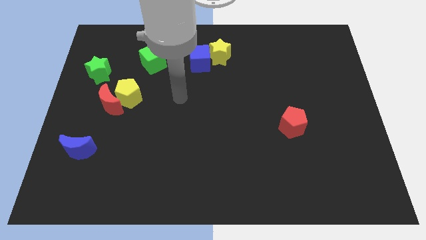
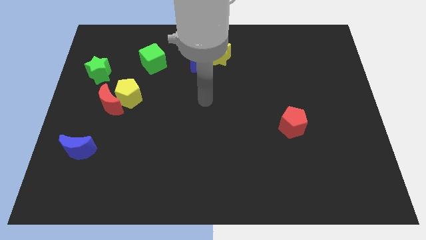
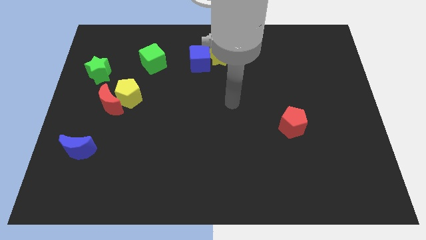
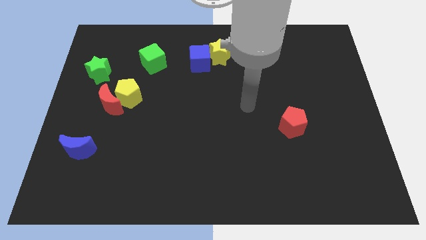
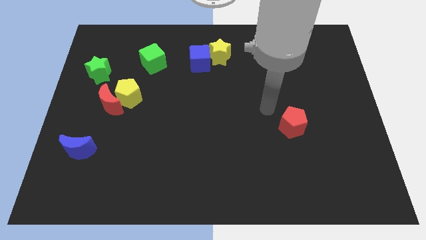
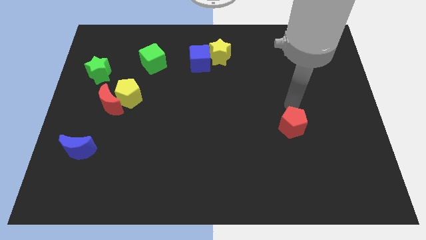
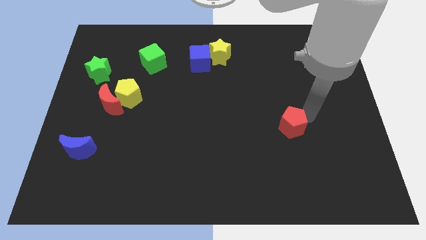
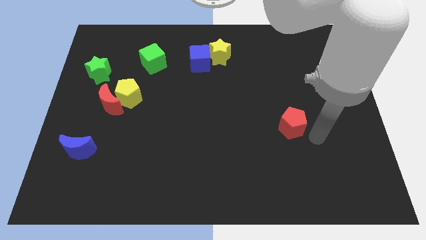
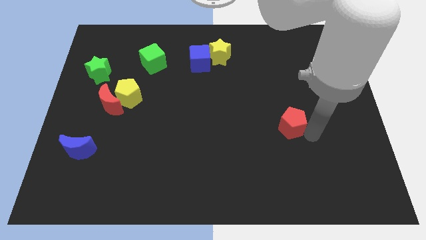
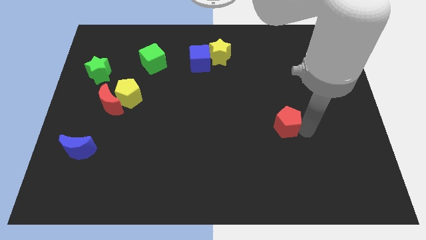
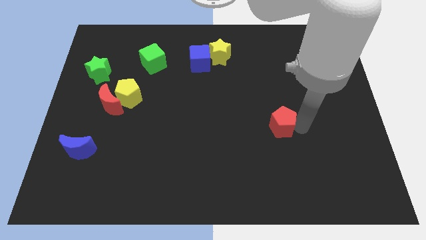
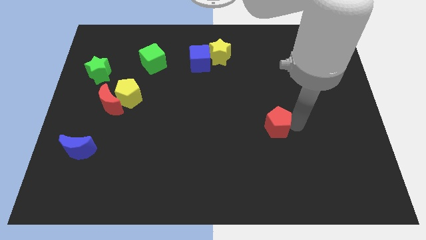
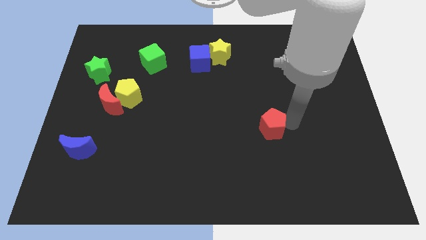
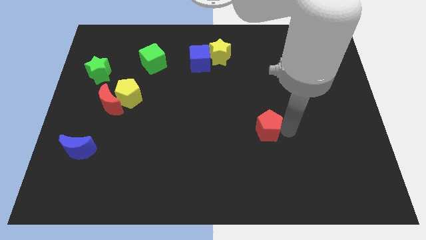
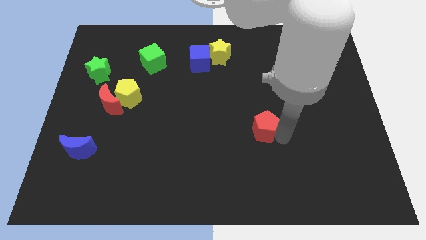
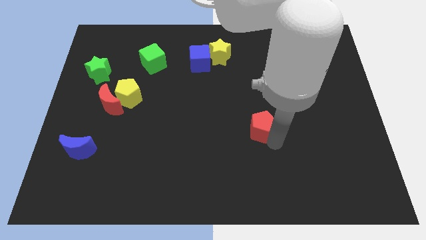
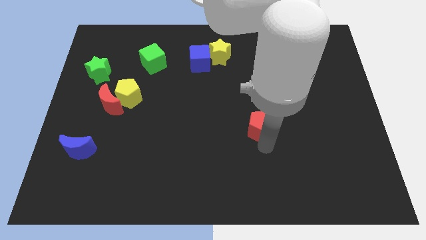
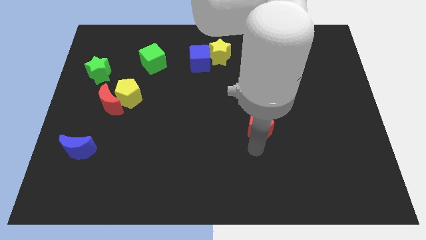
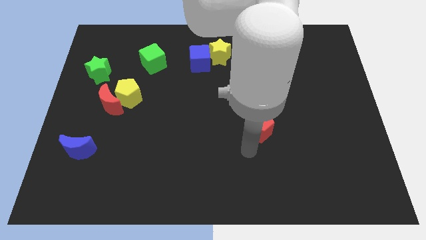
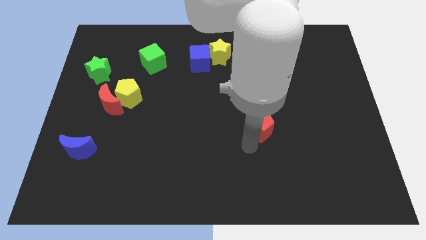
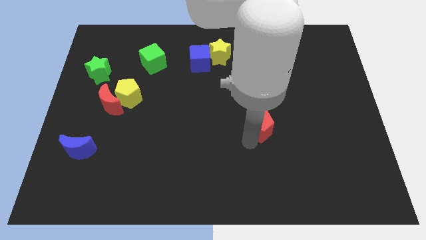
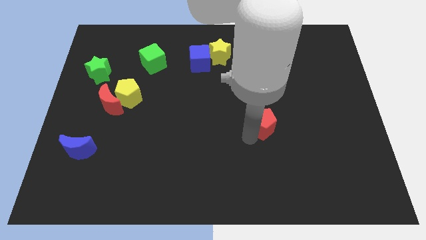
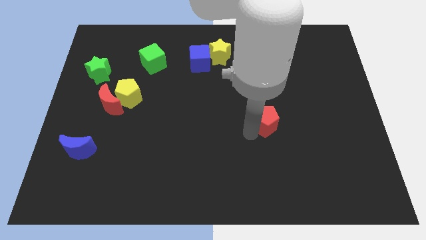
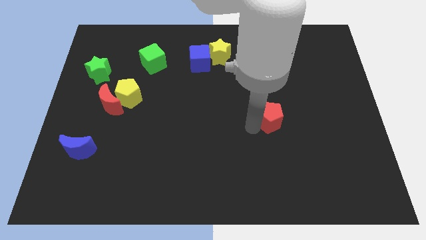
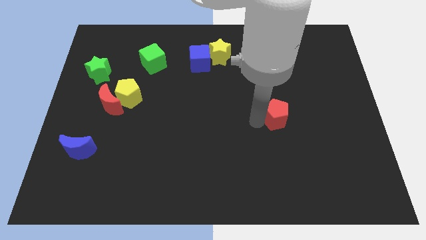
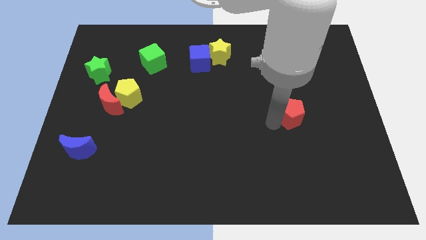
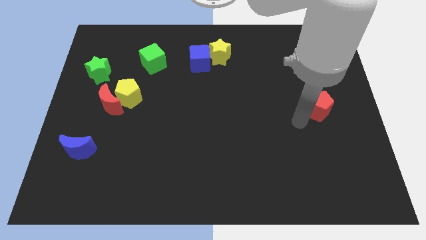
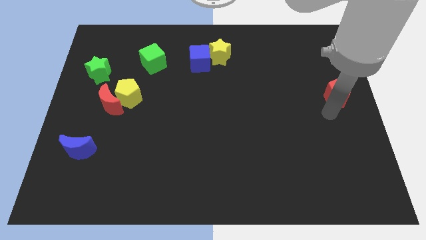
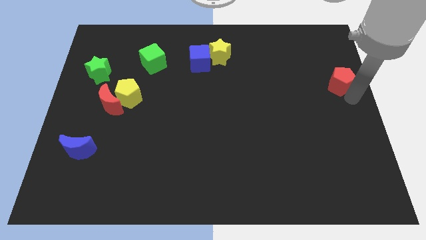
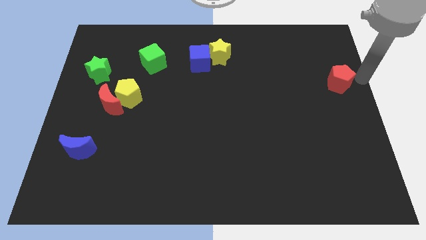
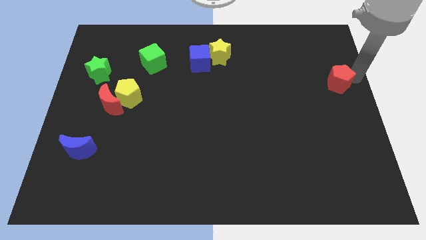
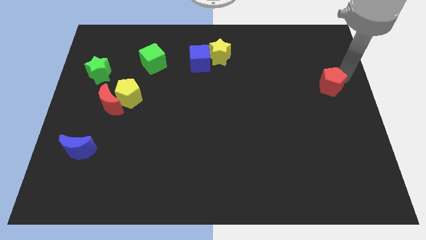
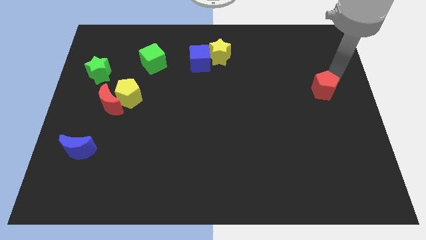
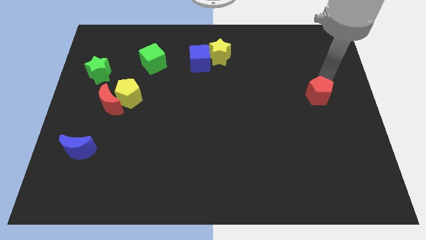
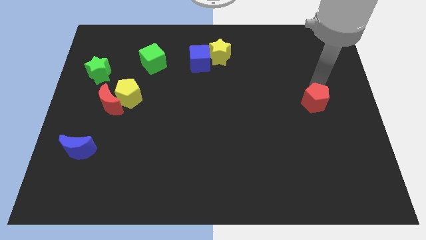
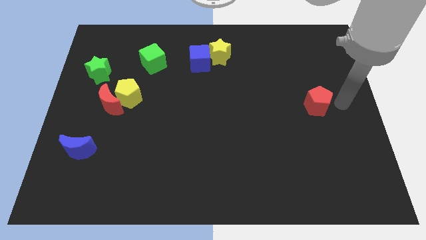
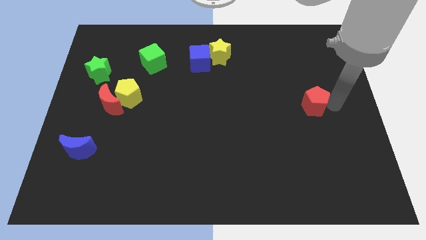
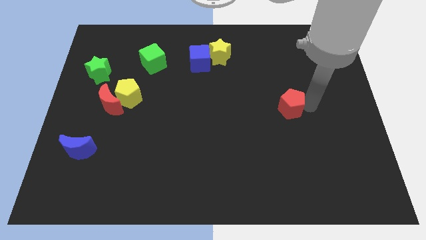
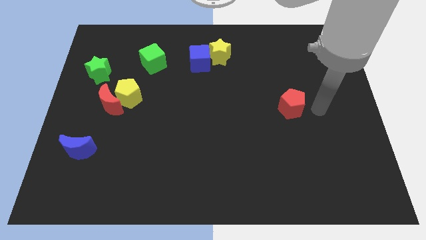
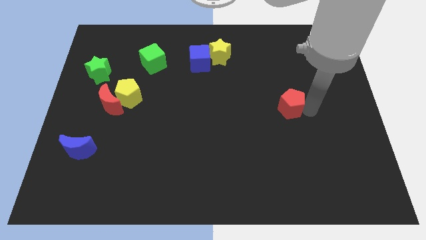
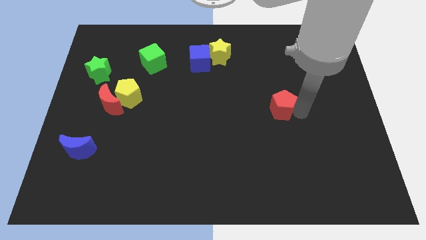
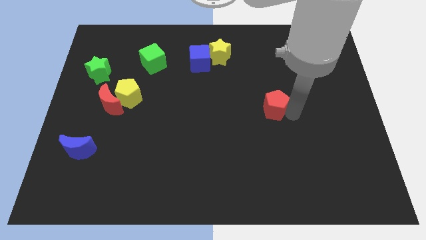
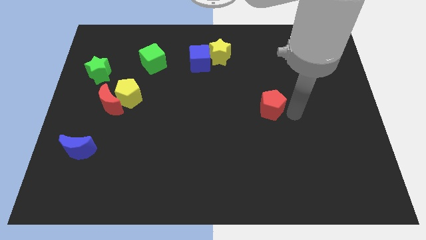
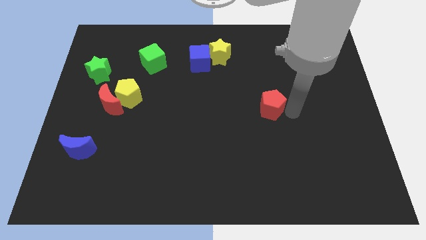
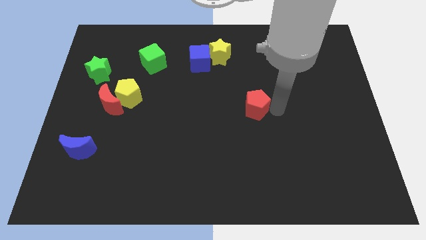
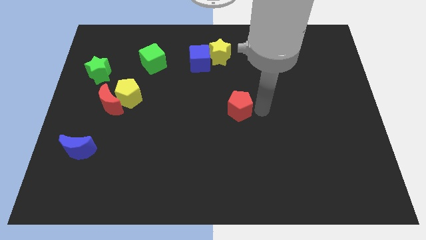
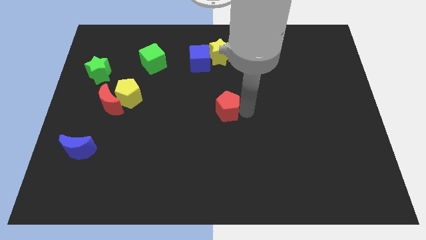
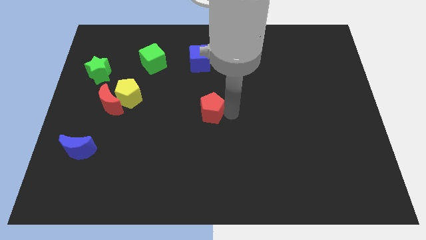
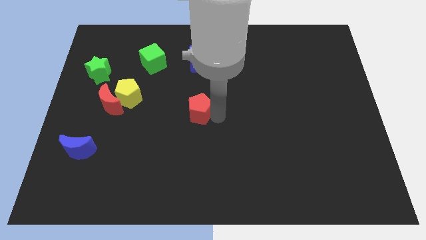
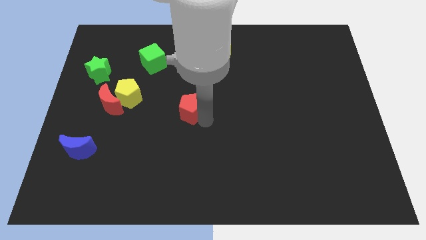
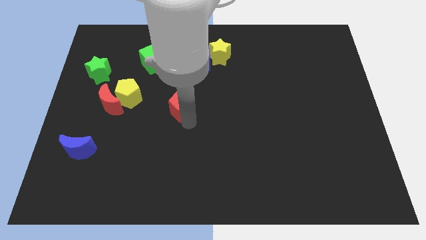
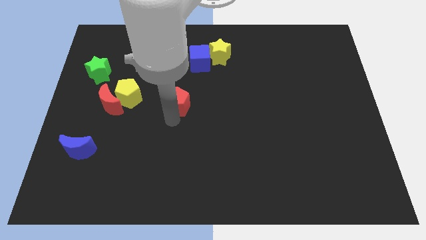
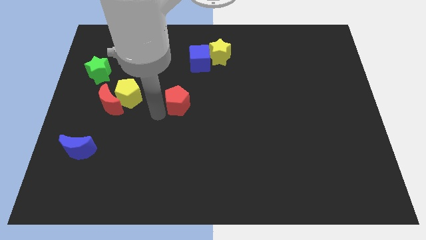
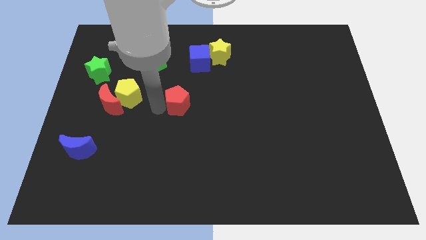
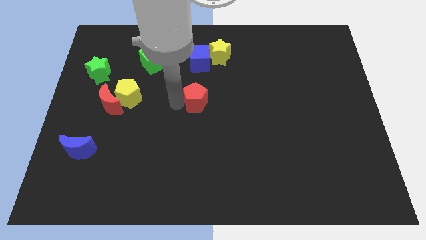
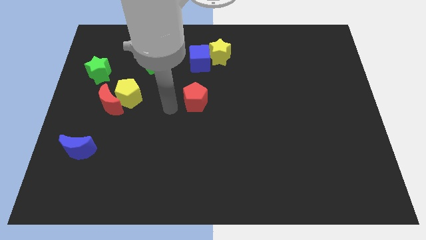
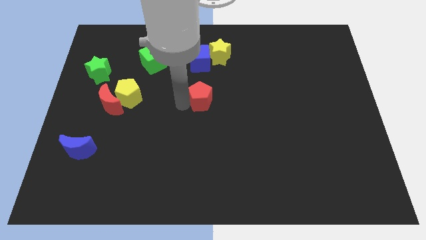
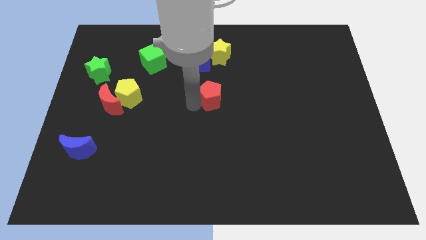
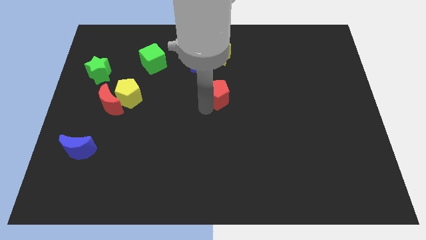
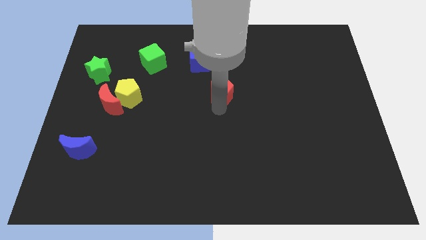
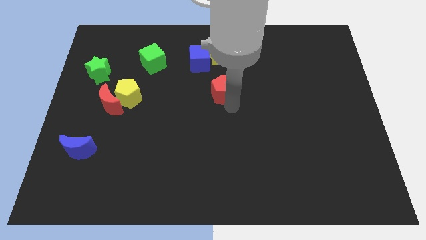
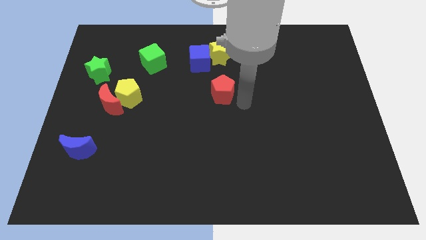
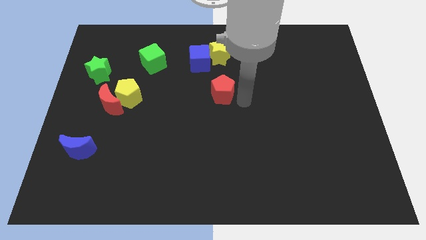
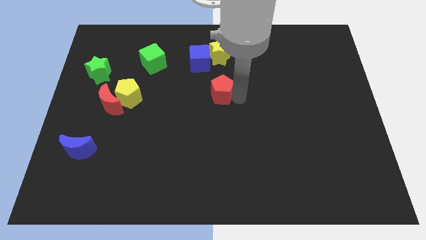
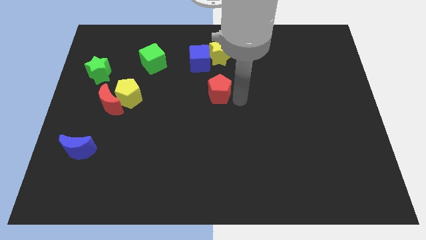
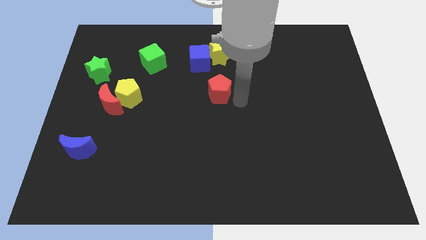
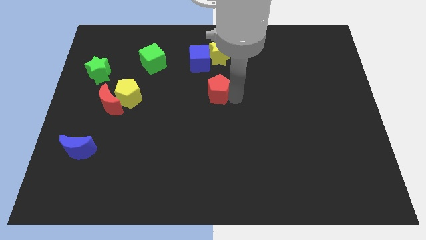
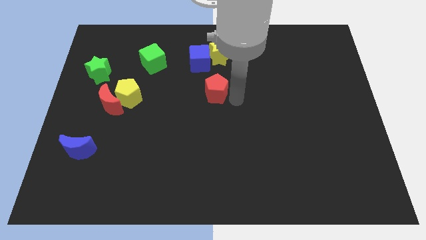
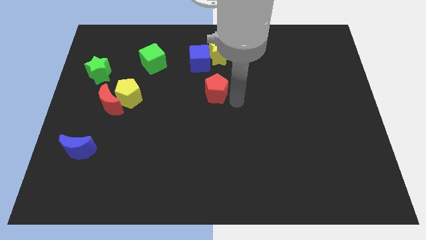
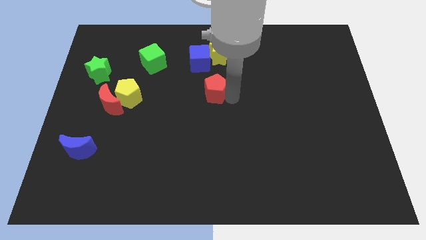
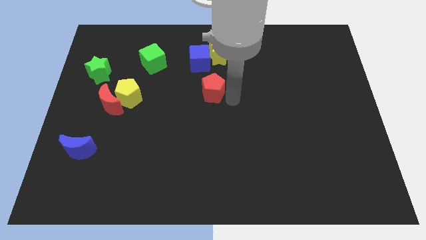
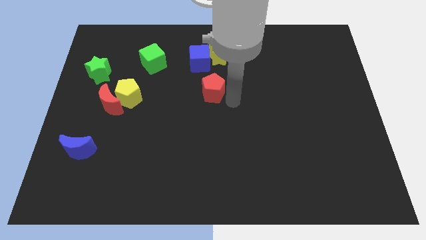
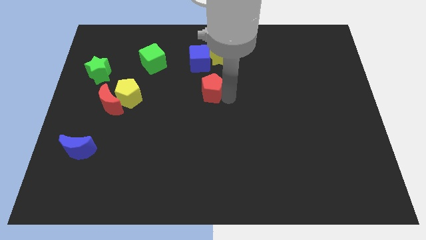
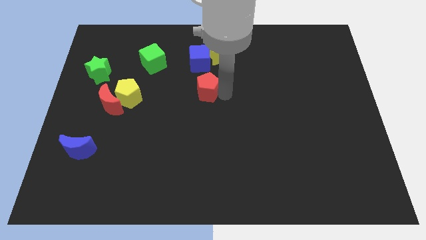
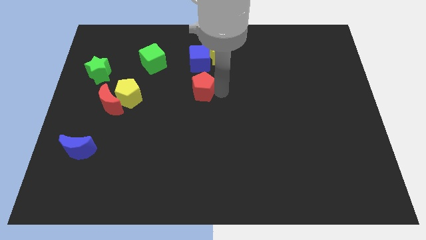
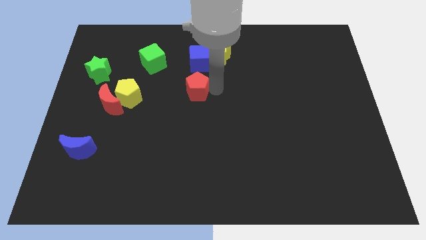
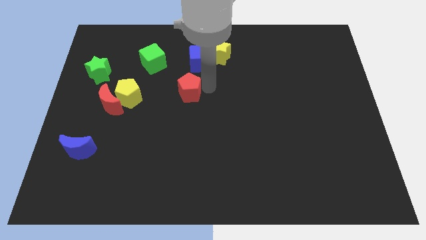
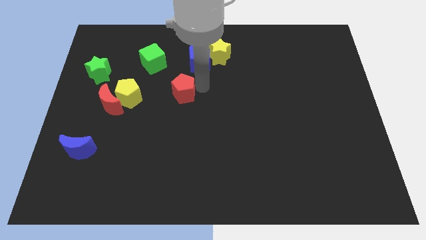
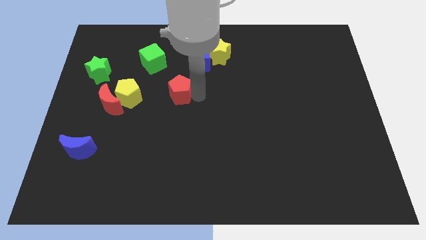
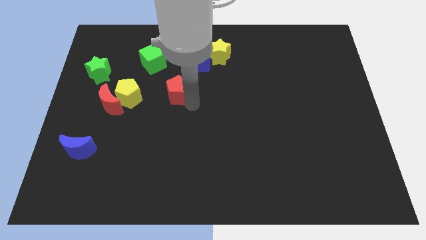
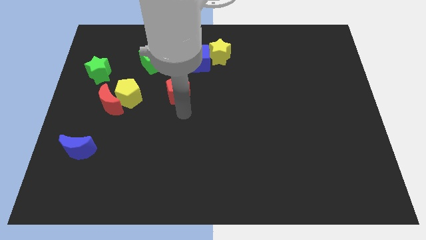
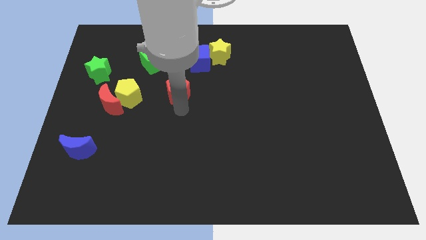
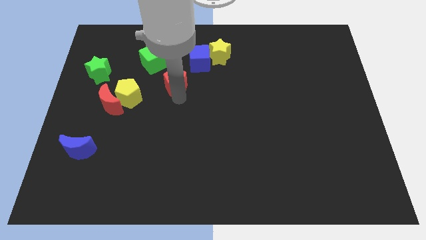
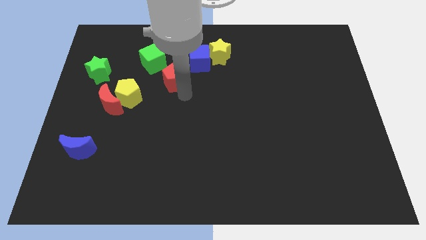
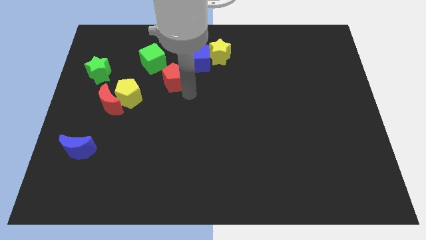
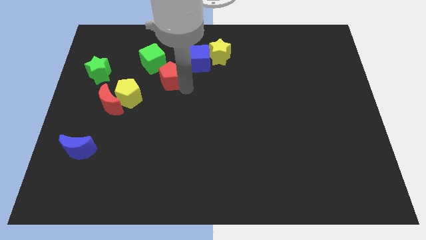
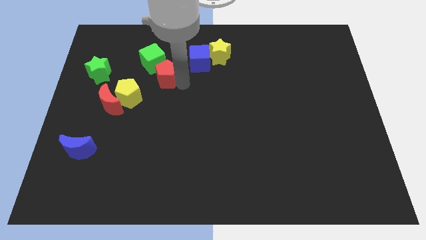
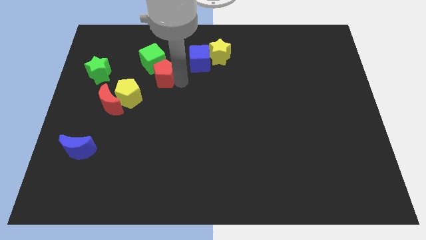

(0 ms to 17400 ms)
put the red pentagon close to the green cube
